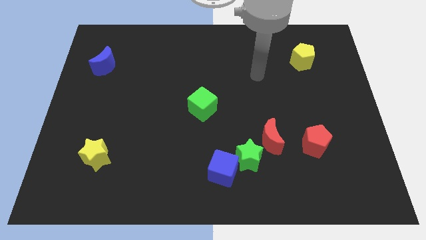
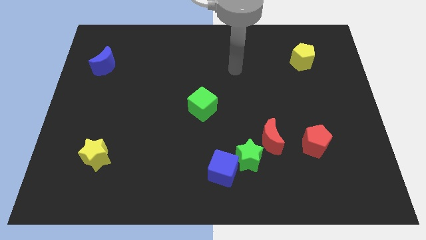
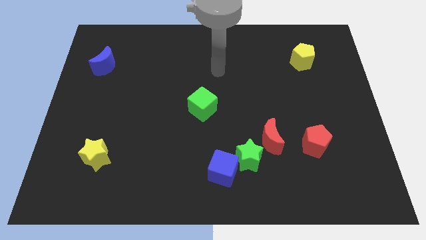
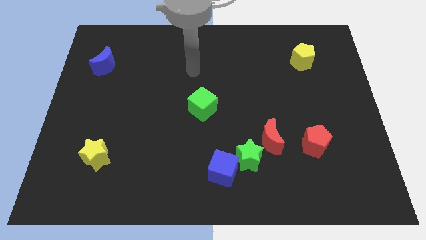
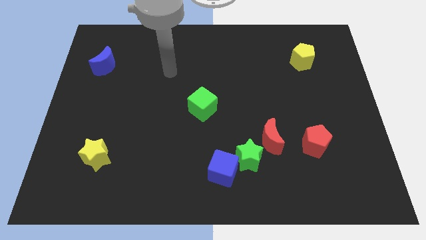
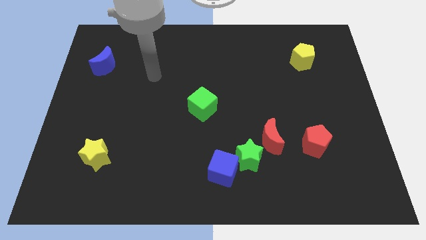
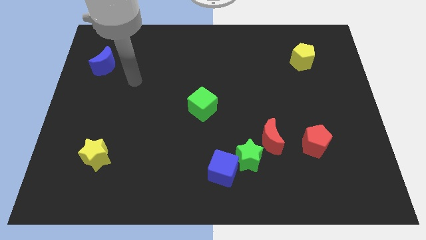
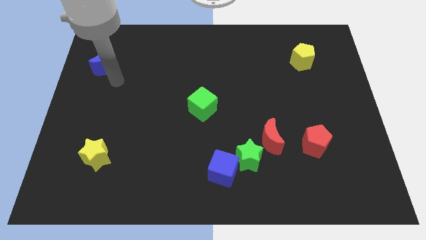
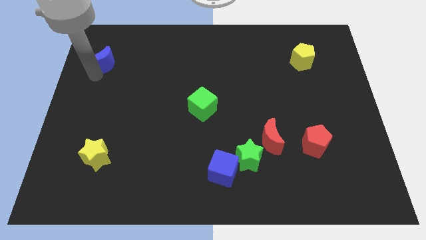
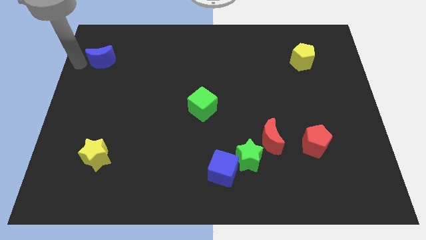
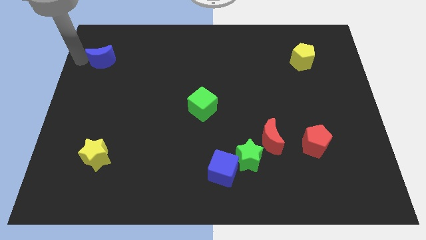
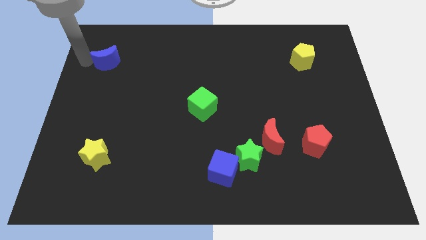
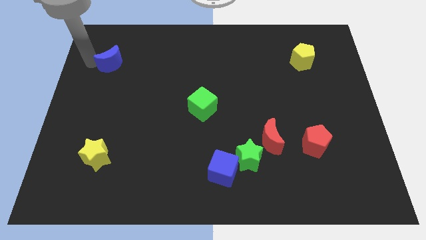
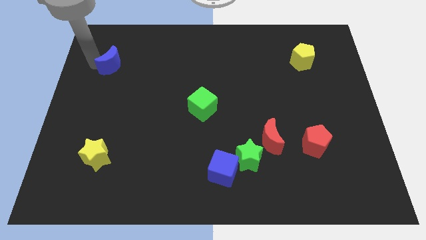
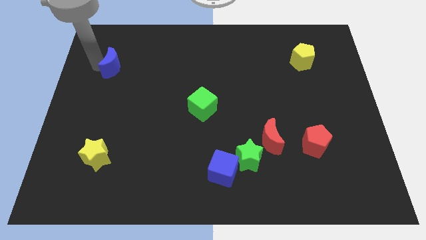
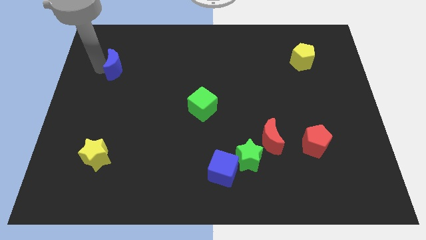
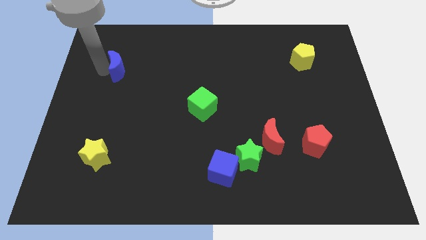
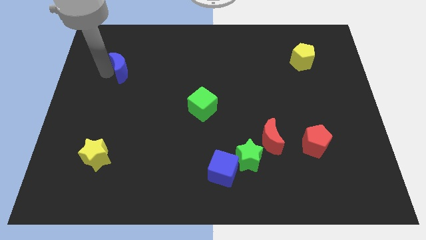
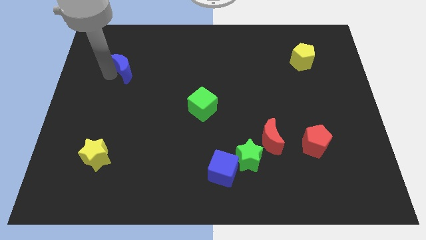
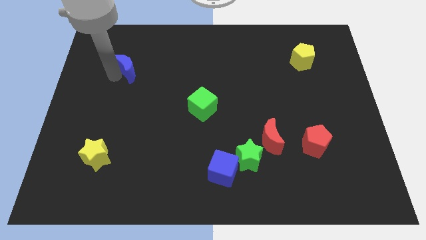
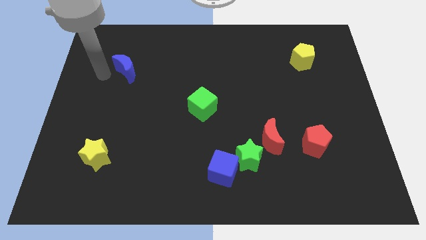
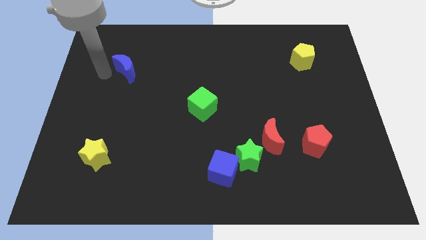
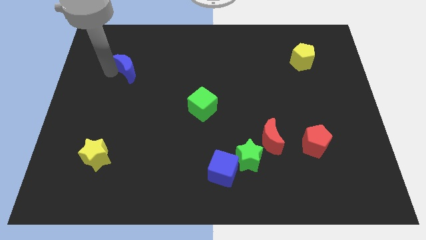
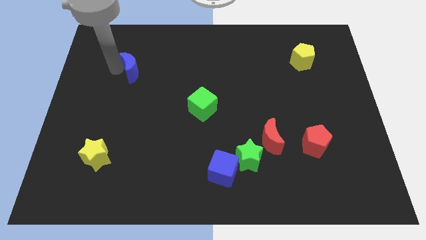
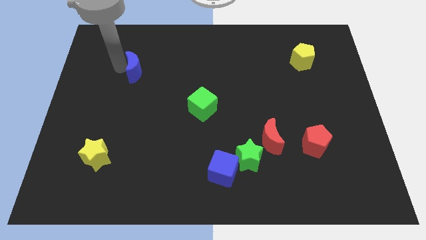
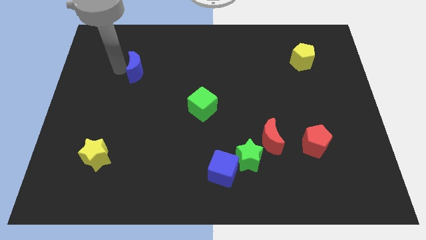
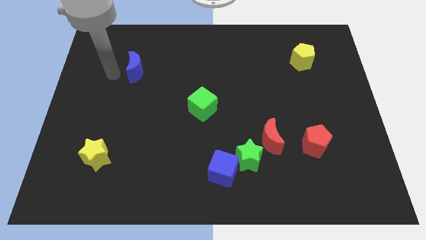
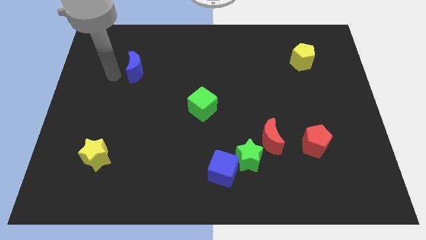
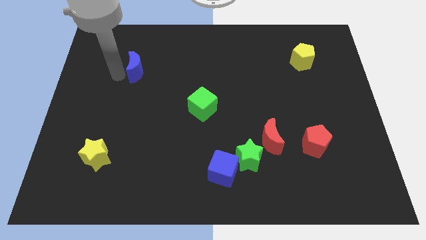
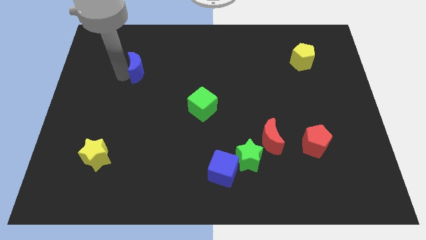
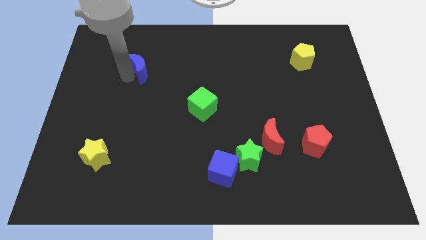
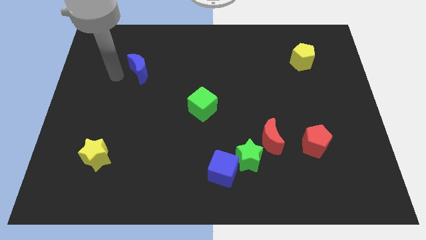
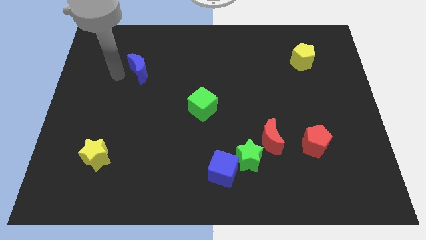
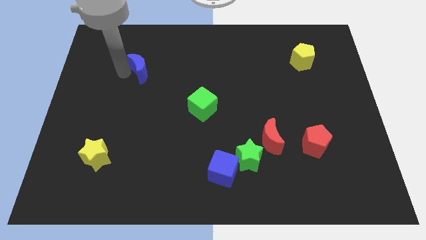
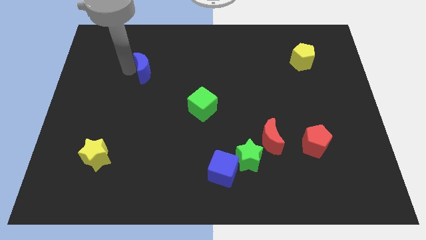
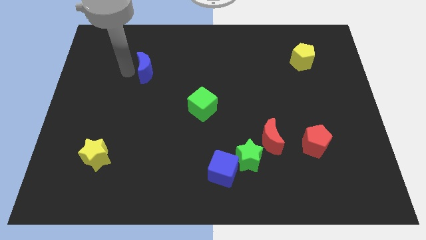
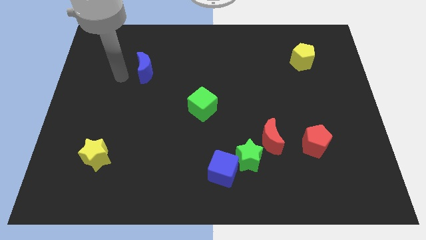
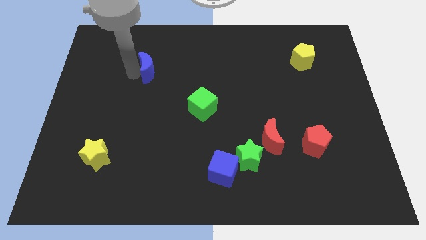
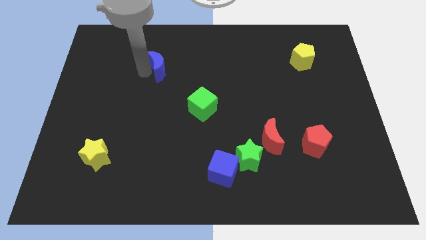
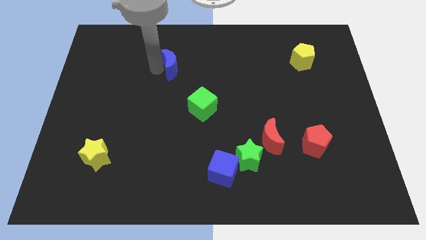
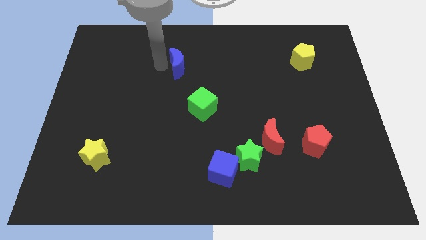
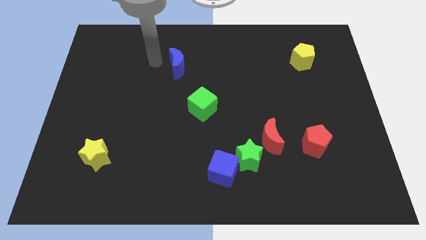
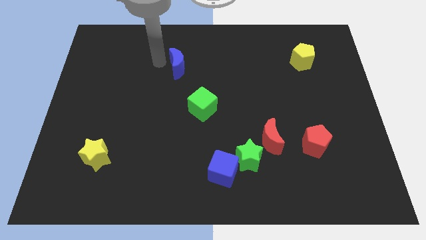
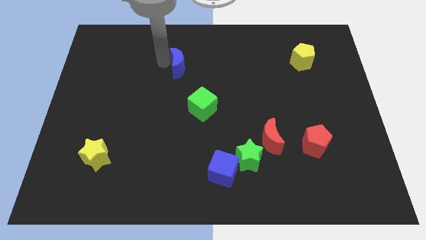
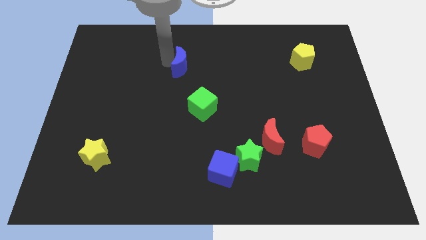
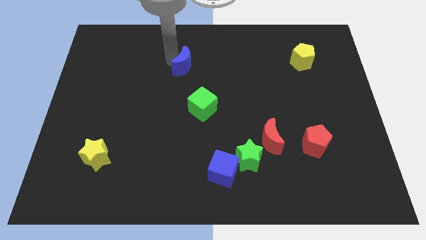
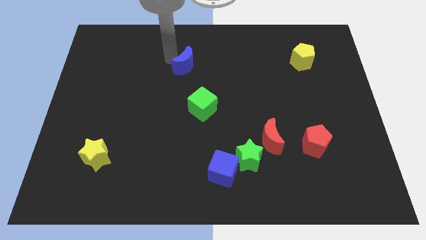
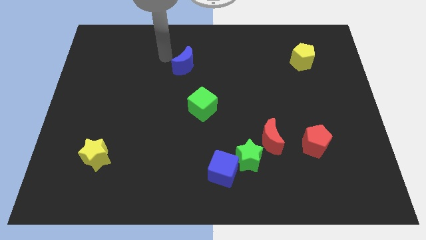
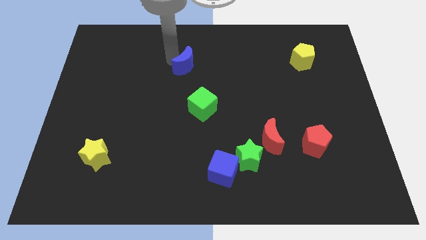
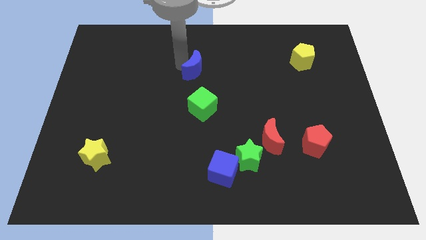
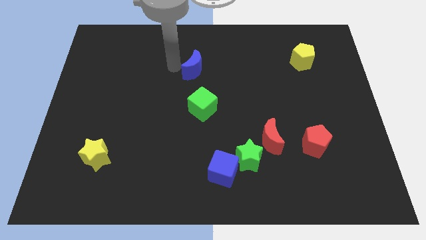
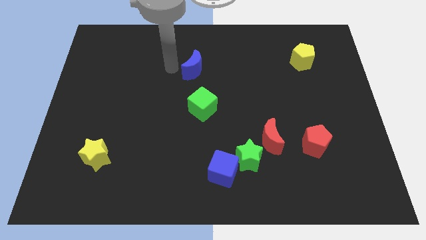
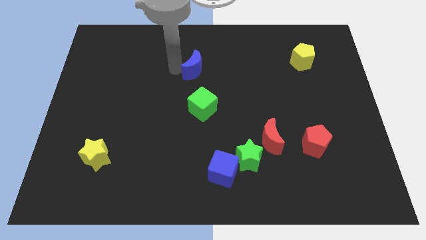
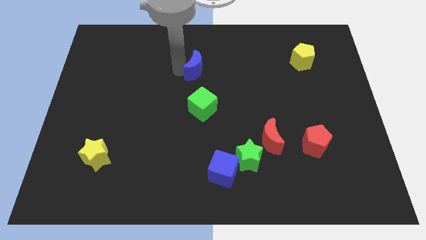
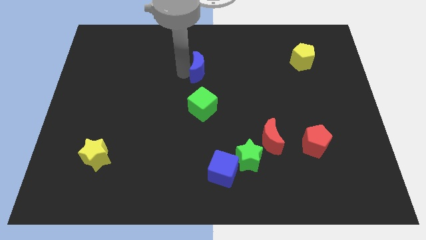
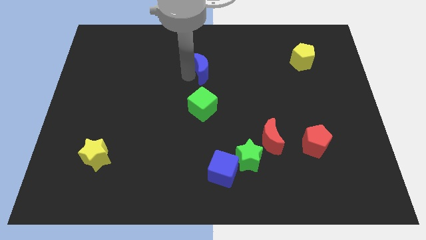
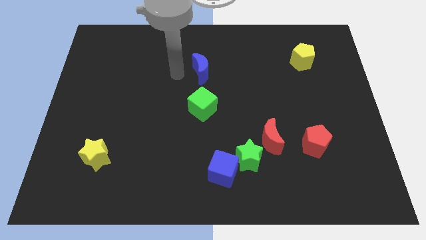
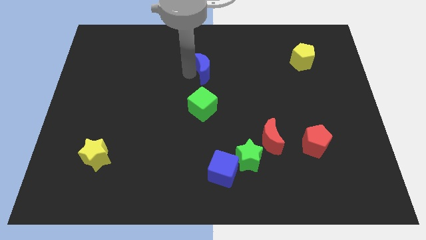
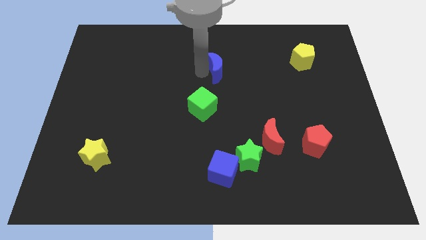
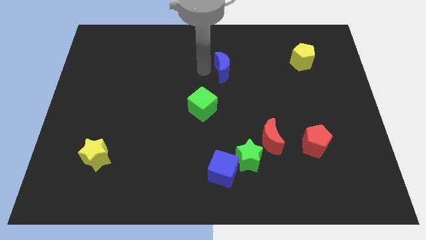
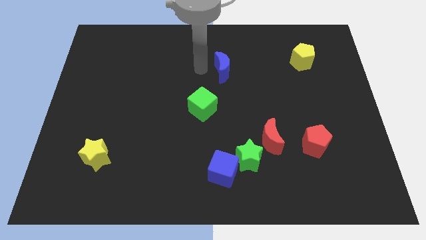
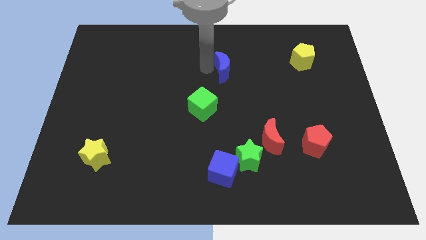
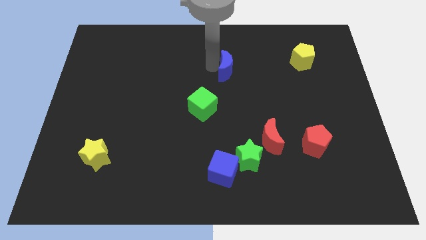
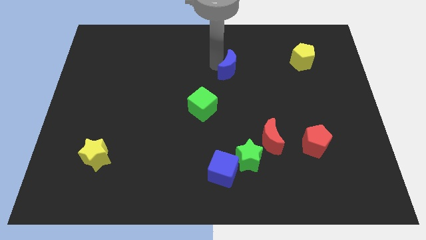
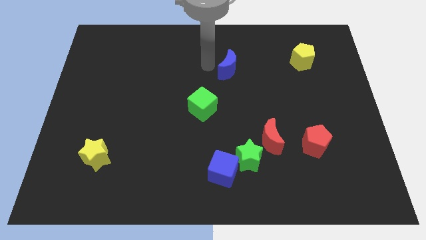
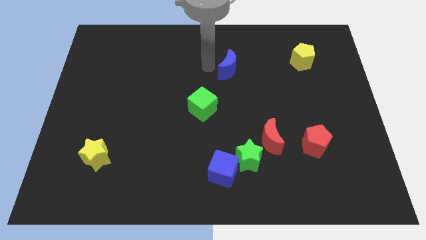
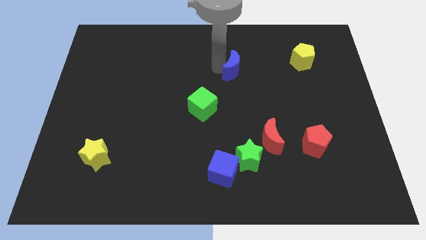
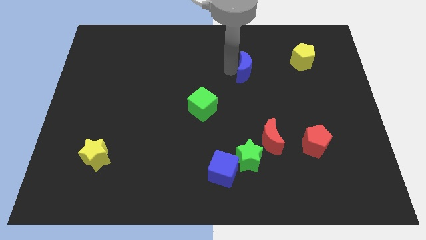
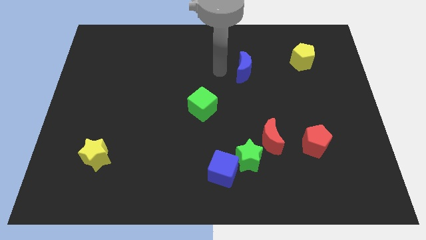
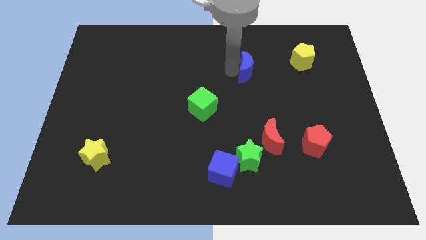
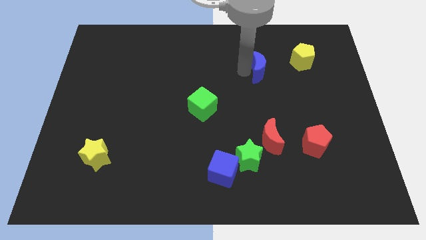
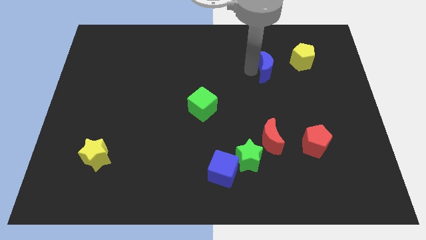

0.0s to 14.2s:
push the blue moon to the bottom left of the yellow pentagon

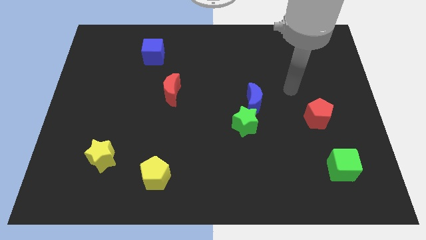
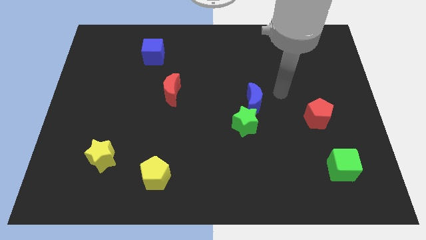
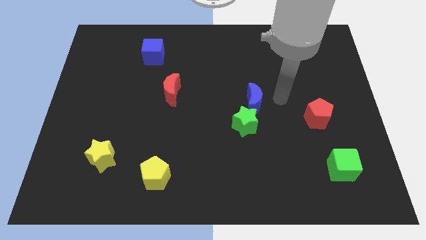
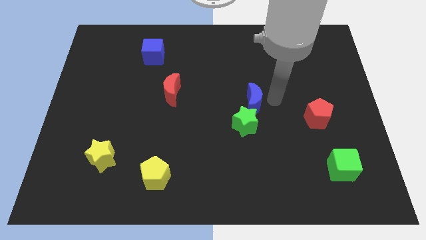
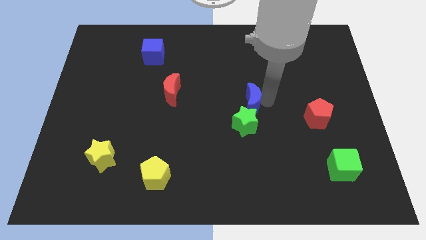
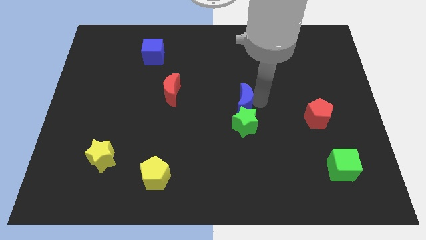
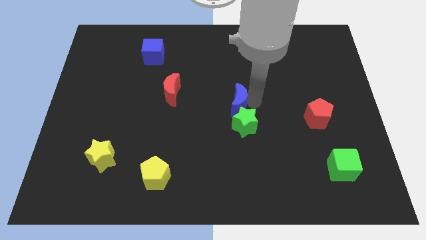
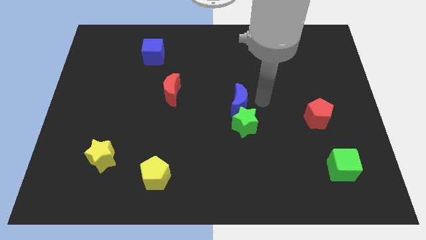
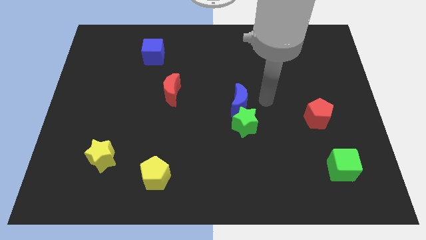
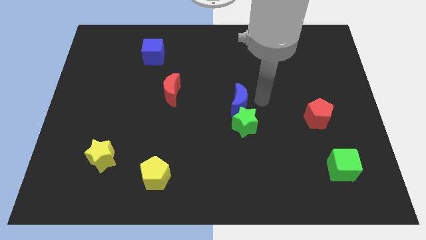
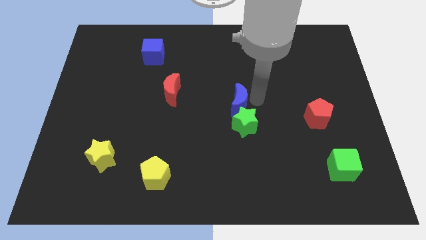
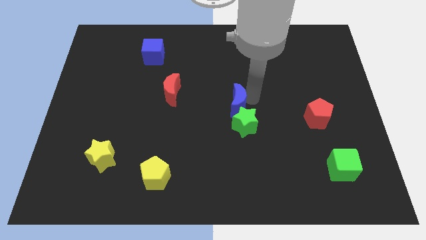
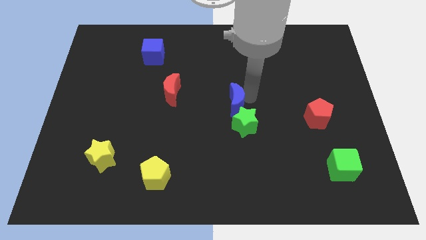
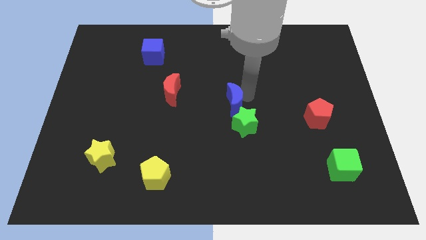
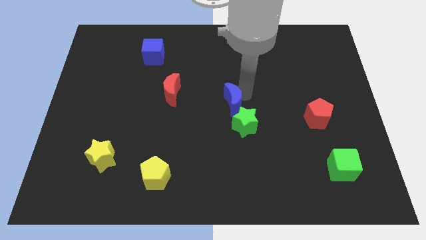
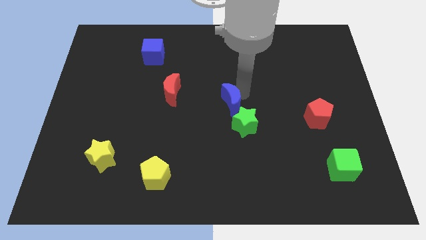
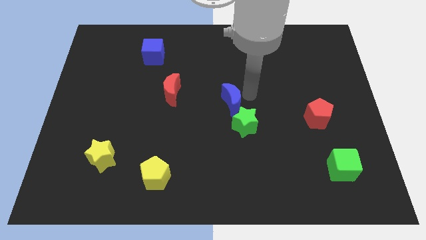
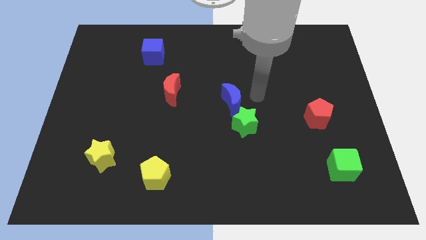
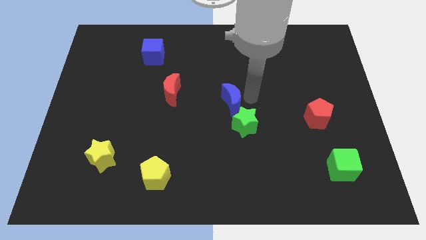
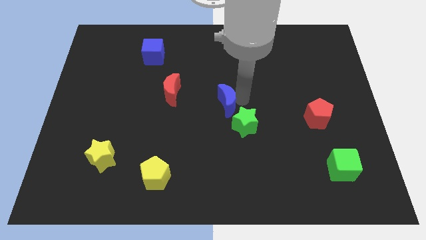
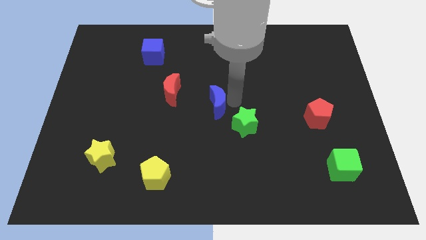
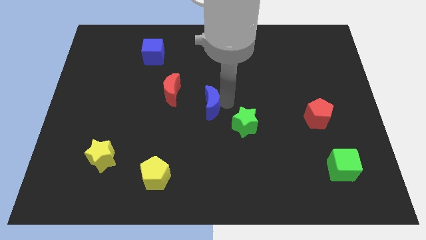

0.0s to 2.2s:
put the blue moon to the bottom right of the red moon
